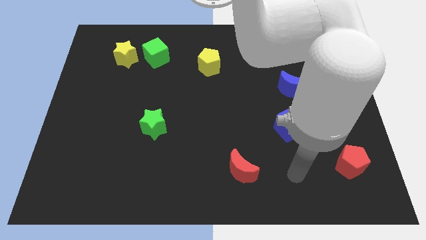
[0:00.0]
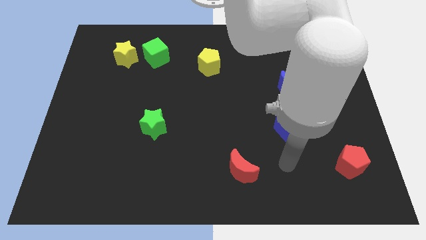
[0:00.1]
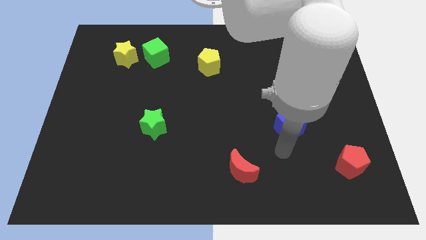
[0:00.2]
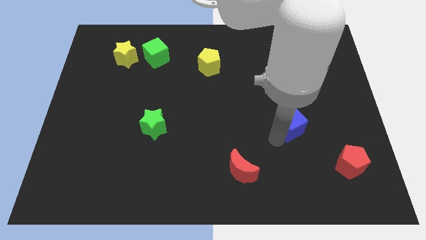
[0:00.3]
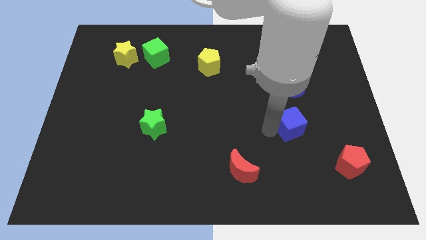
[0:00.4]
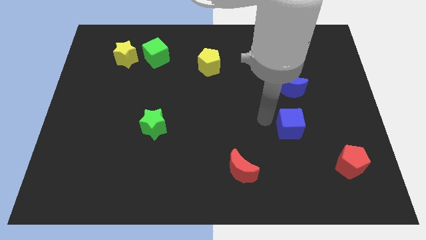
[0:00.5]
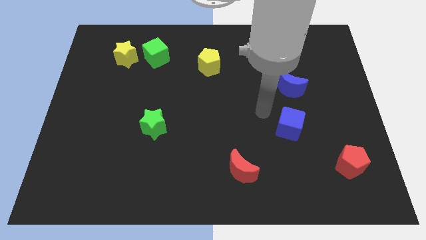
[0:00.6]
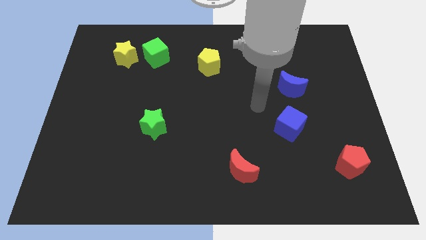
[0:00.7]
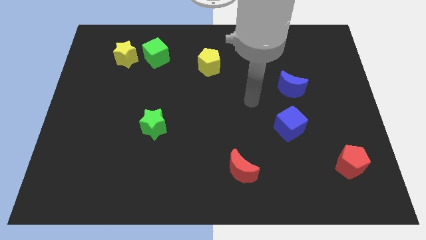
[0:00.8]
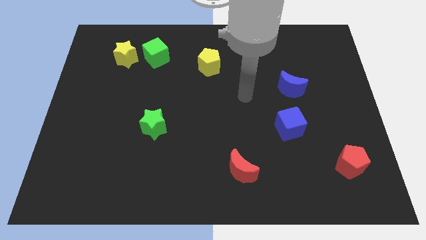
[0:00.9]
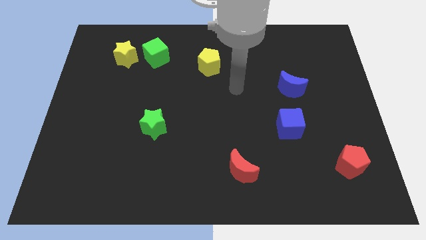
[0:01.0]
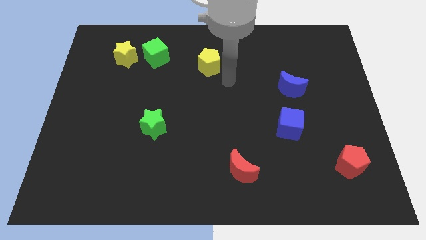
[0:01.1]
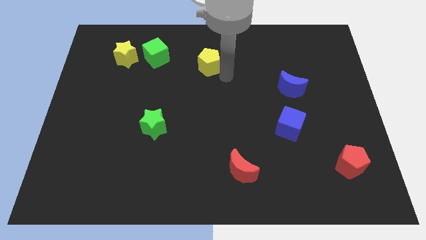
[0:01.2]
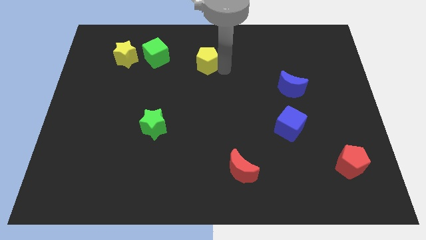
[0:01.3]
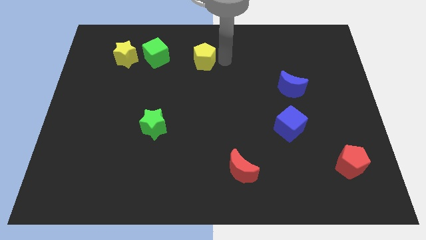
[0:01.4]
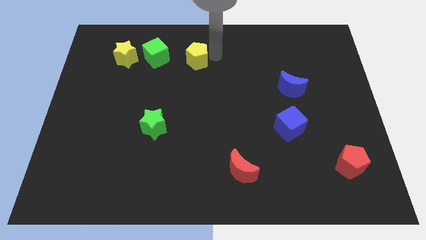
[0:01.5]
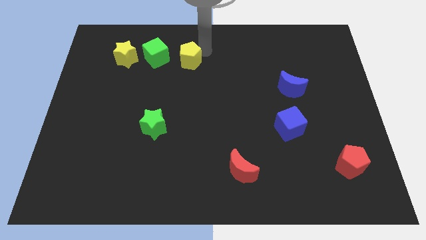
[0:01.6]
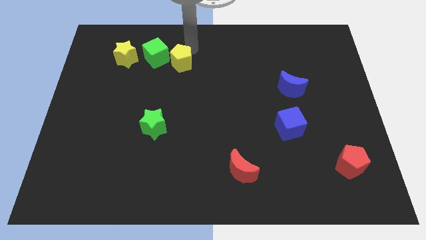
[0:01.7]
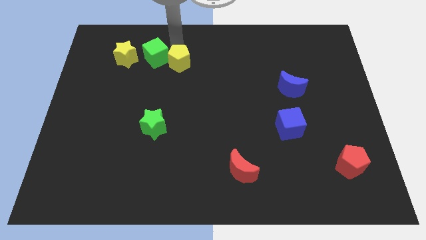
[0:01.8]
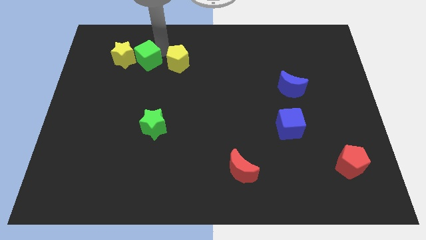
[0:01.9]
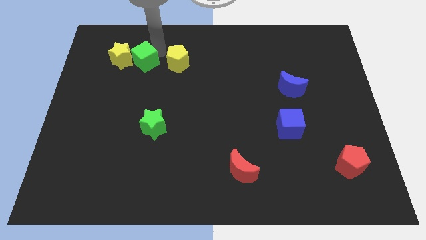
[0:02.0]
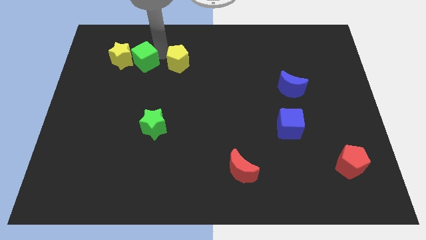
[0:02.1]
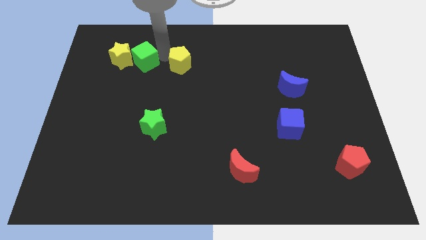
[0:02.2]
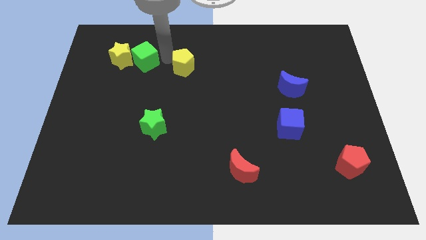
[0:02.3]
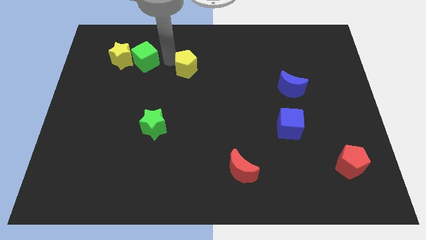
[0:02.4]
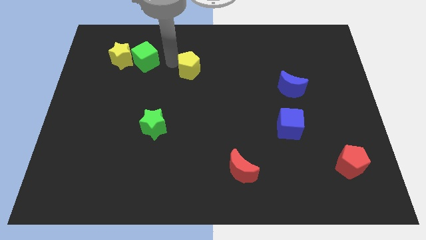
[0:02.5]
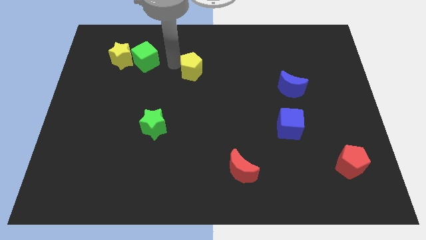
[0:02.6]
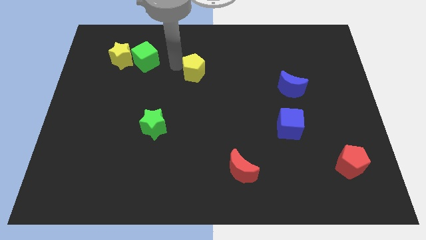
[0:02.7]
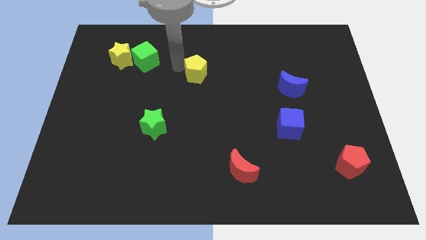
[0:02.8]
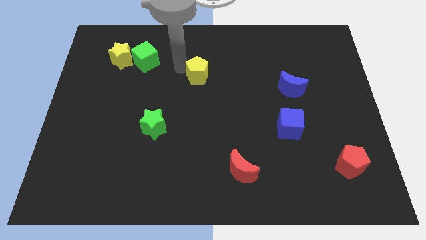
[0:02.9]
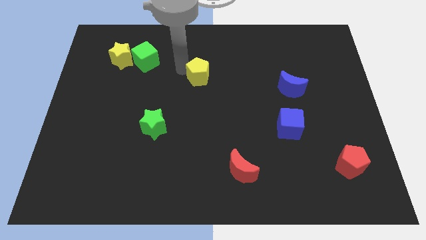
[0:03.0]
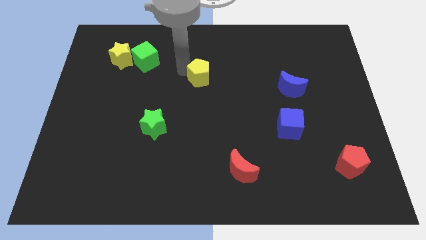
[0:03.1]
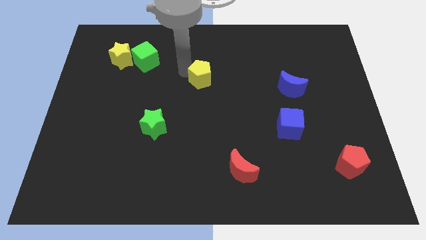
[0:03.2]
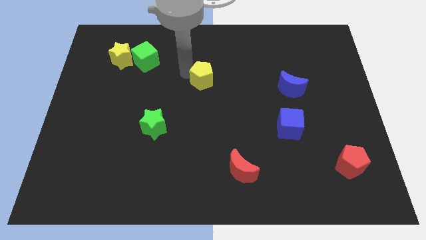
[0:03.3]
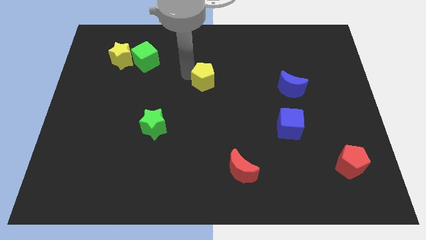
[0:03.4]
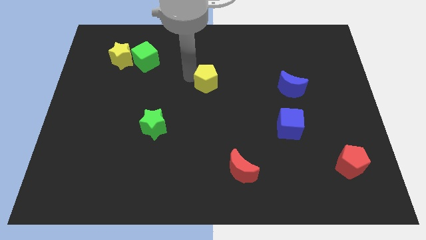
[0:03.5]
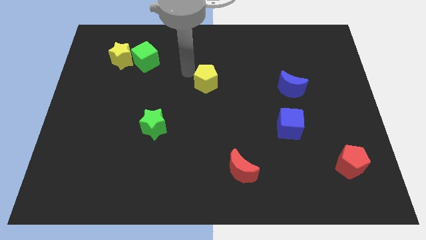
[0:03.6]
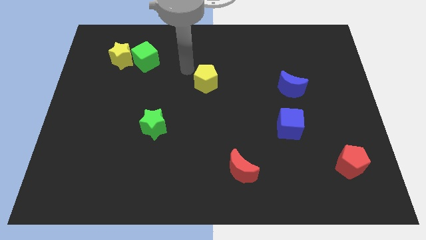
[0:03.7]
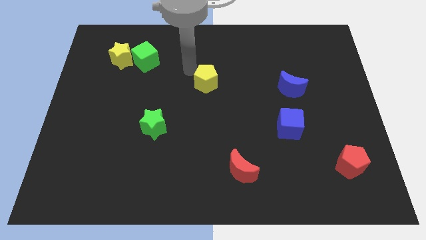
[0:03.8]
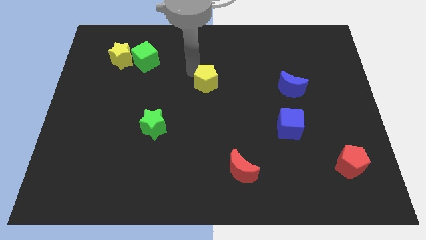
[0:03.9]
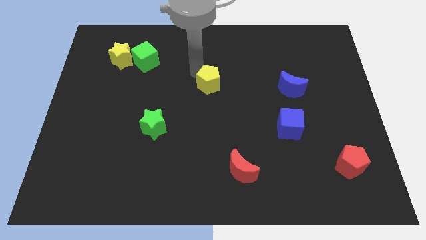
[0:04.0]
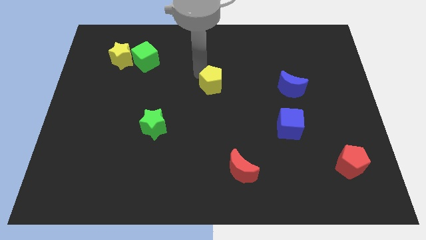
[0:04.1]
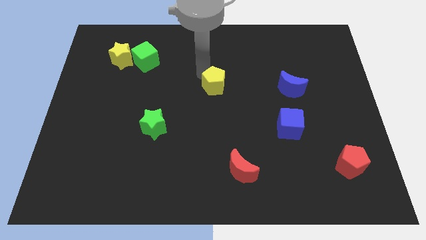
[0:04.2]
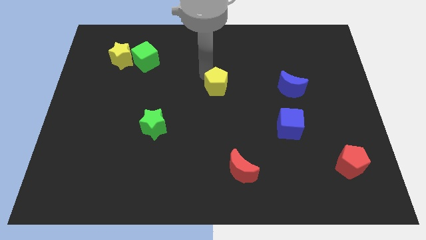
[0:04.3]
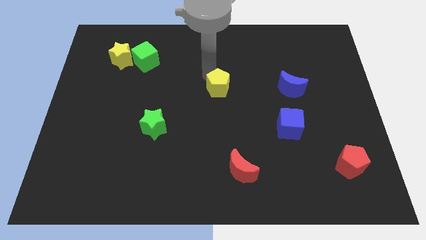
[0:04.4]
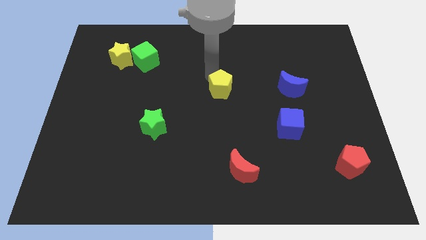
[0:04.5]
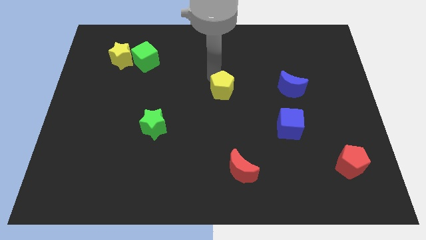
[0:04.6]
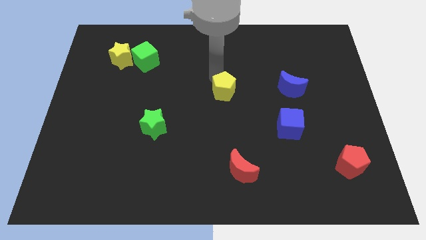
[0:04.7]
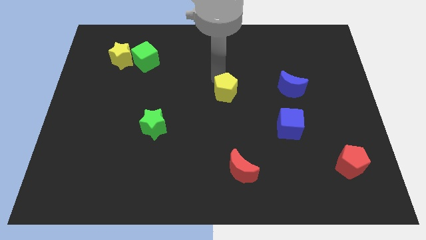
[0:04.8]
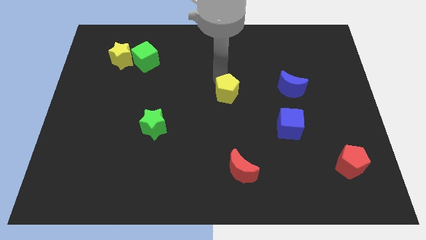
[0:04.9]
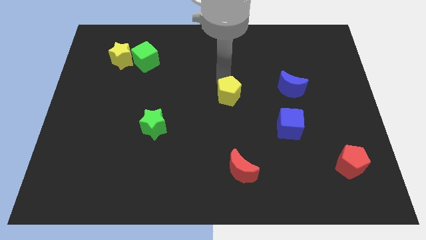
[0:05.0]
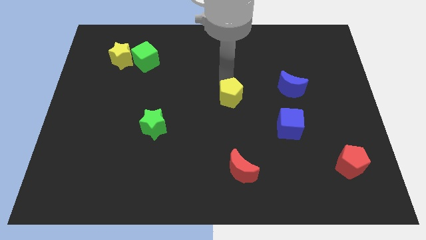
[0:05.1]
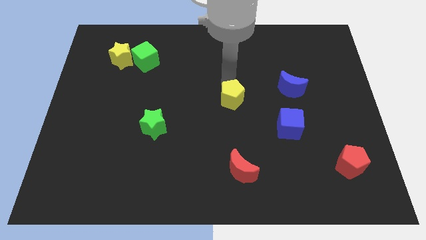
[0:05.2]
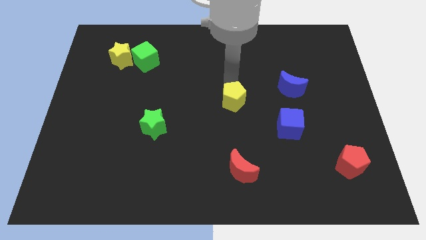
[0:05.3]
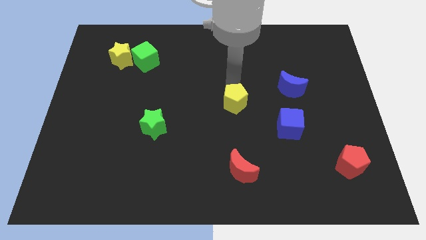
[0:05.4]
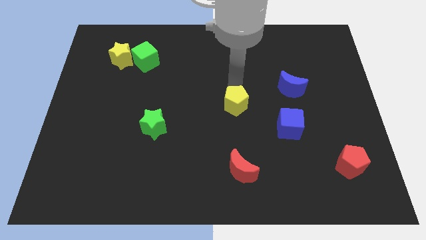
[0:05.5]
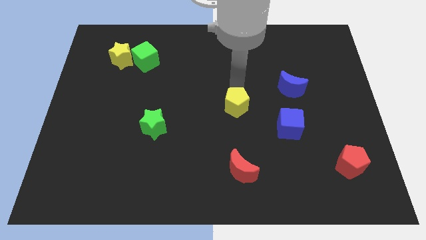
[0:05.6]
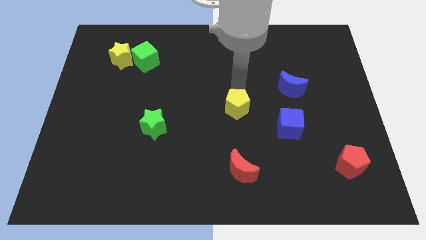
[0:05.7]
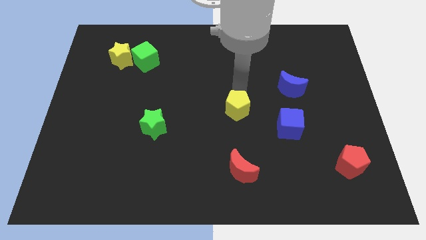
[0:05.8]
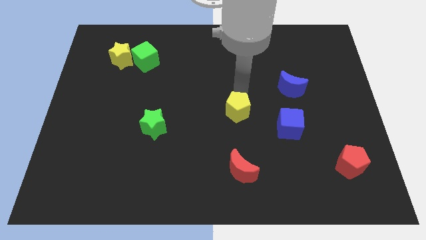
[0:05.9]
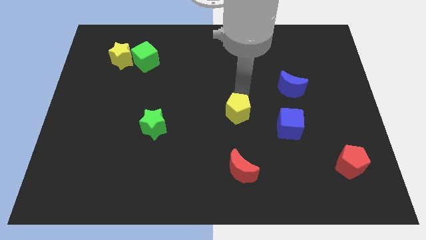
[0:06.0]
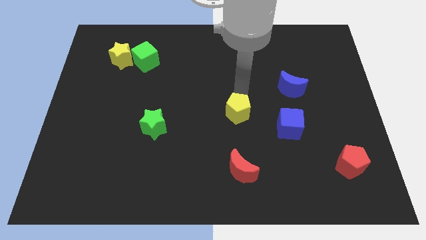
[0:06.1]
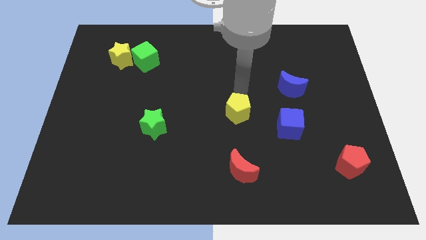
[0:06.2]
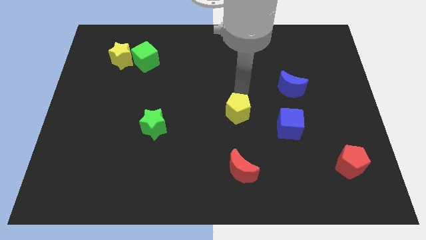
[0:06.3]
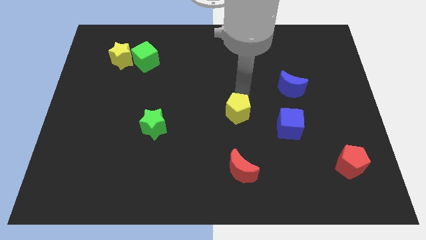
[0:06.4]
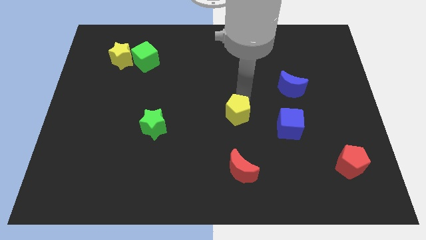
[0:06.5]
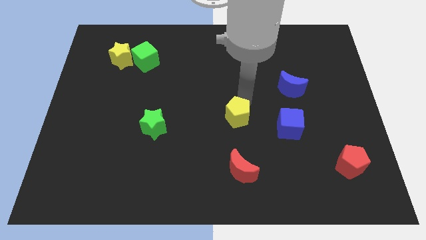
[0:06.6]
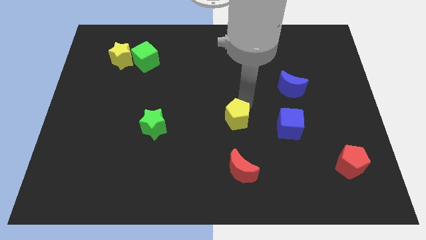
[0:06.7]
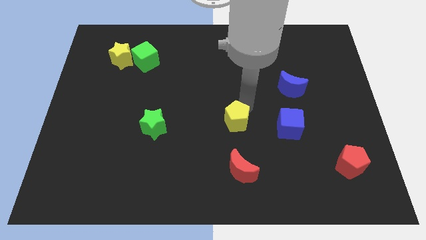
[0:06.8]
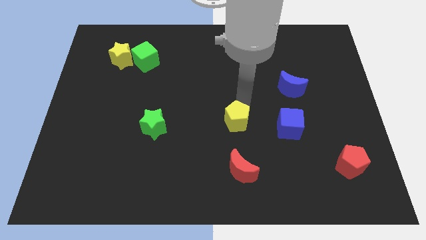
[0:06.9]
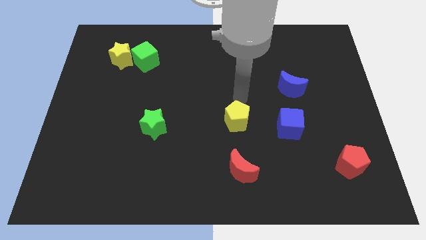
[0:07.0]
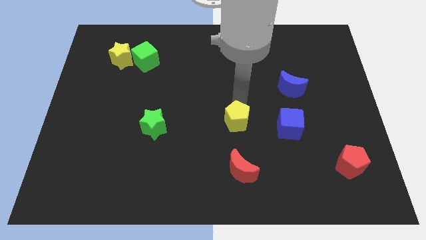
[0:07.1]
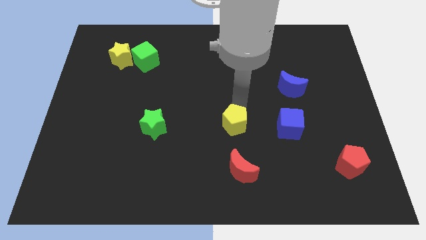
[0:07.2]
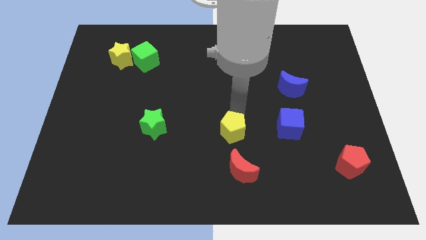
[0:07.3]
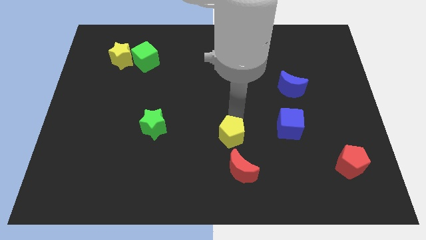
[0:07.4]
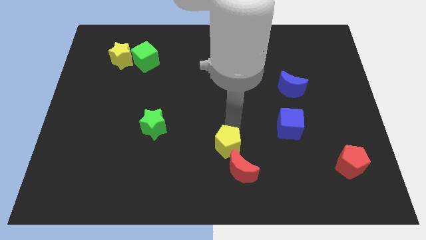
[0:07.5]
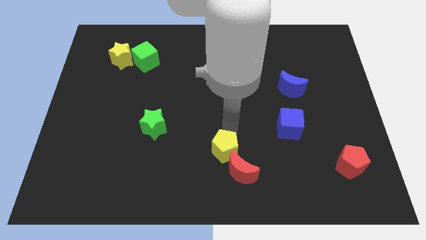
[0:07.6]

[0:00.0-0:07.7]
slide the yellow pentagon next to the red moon
